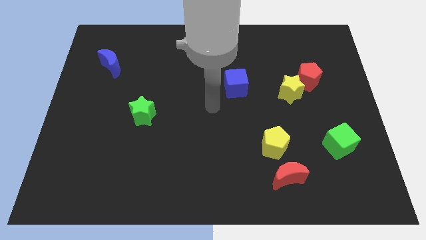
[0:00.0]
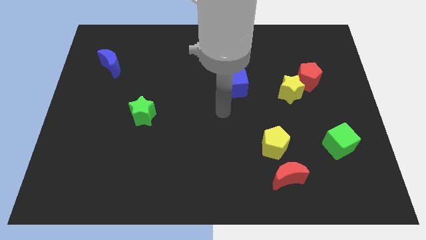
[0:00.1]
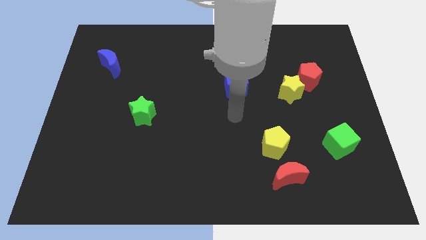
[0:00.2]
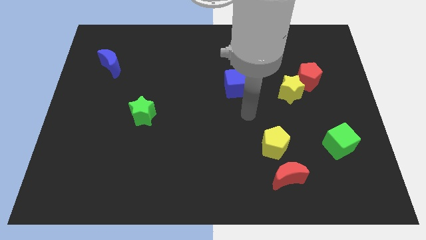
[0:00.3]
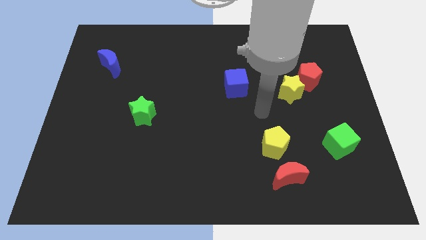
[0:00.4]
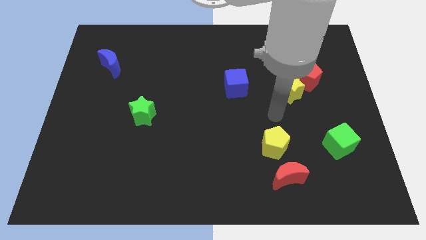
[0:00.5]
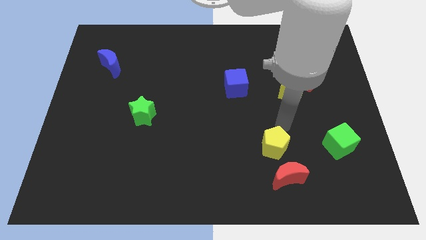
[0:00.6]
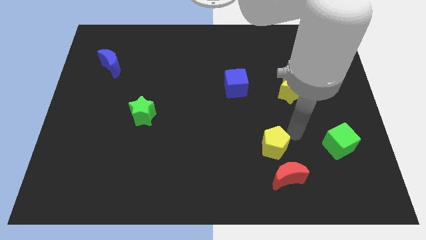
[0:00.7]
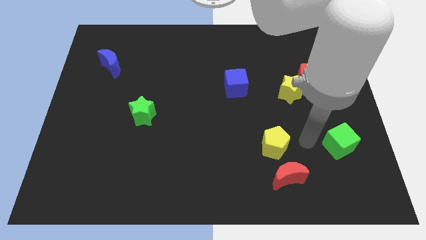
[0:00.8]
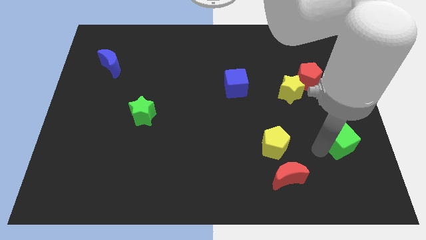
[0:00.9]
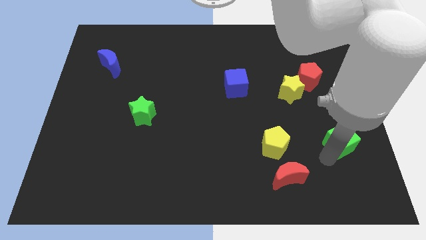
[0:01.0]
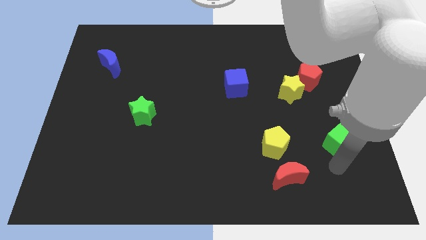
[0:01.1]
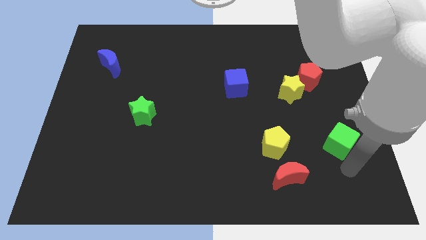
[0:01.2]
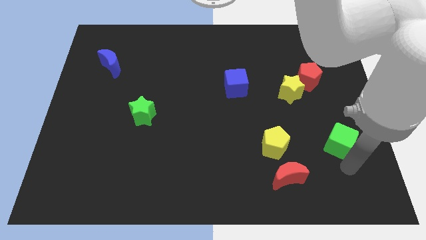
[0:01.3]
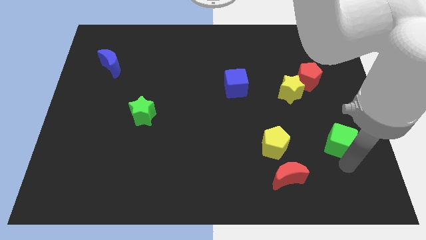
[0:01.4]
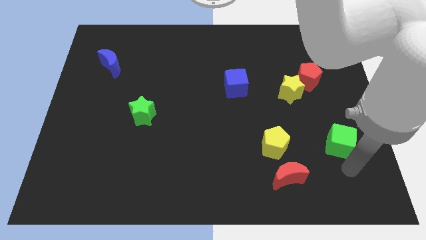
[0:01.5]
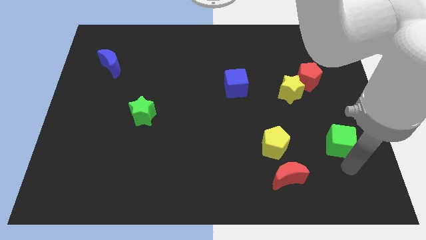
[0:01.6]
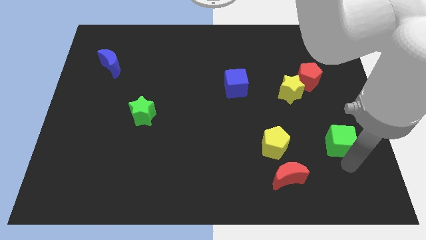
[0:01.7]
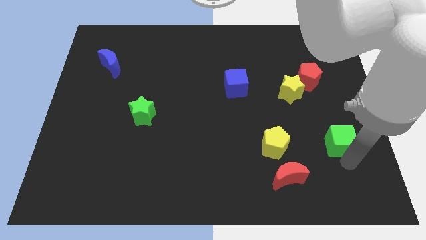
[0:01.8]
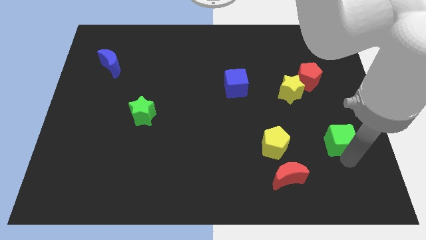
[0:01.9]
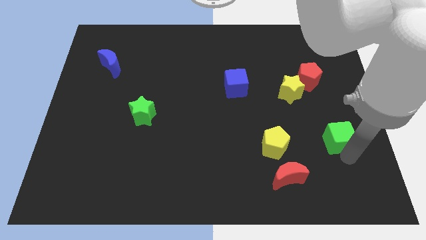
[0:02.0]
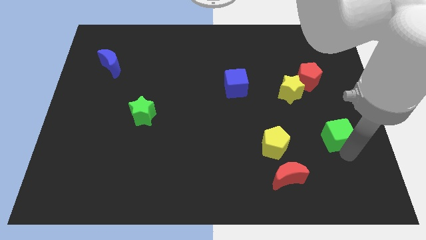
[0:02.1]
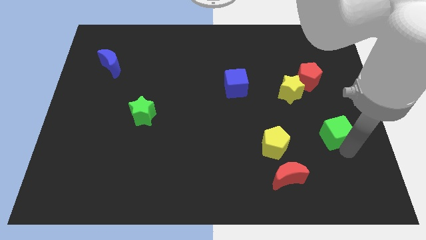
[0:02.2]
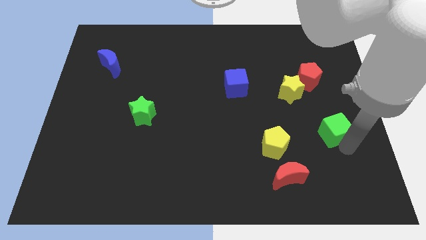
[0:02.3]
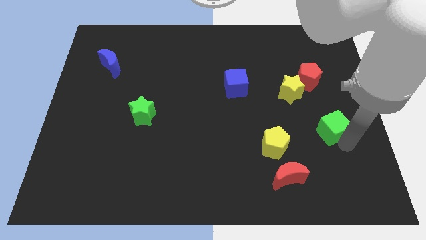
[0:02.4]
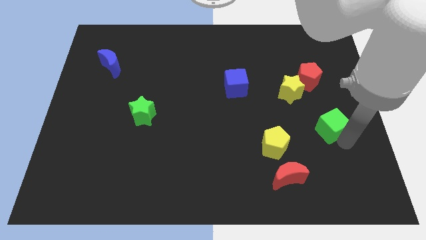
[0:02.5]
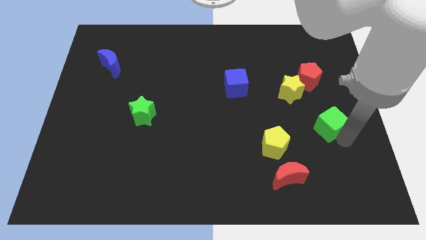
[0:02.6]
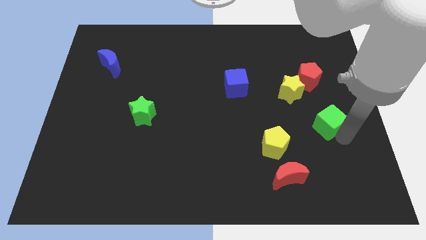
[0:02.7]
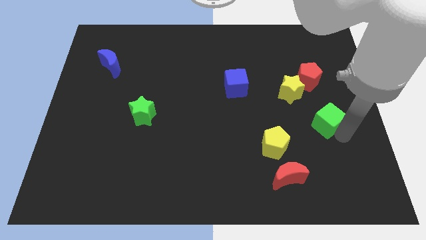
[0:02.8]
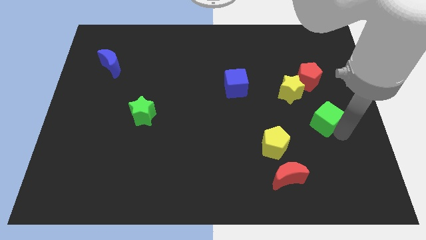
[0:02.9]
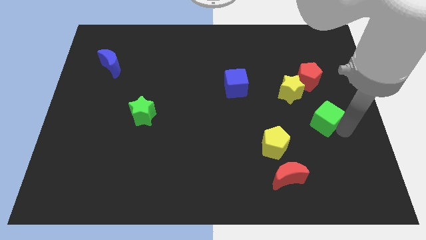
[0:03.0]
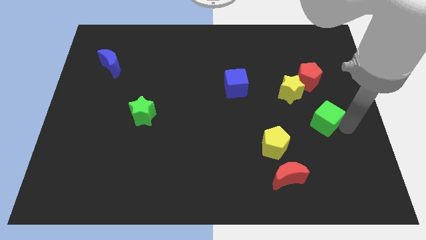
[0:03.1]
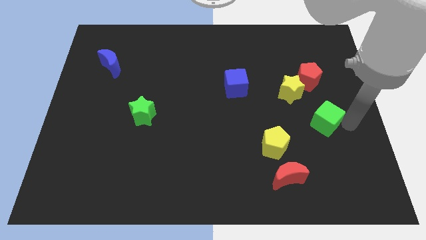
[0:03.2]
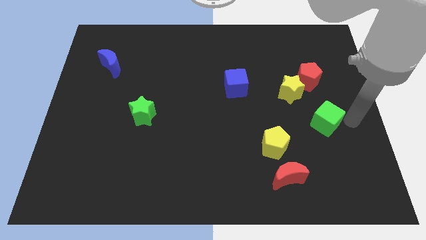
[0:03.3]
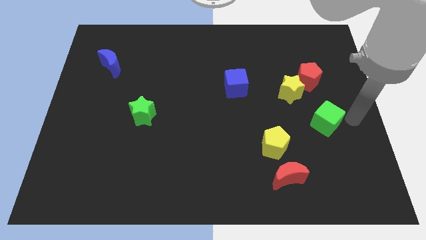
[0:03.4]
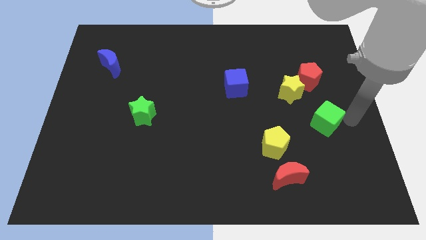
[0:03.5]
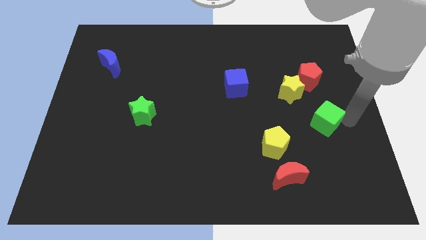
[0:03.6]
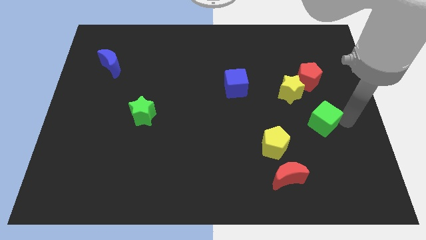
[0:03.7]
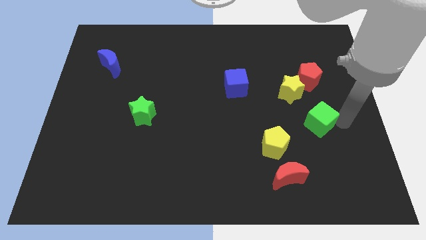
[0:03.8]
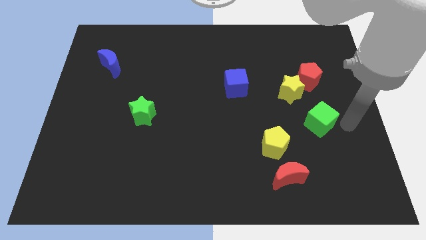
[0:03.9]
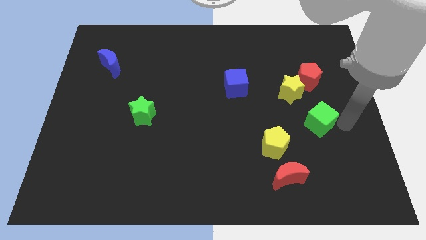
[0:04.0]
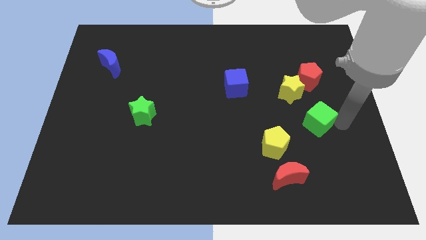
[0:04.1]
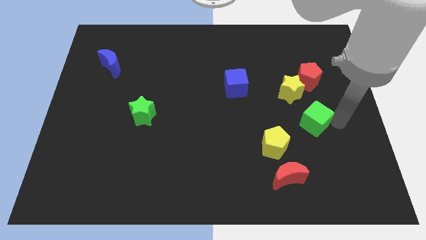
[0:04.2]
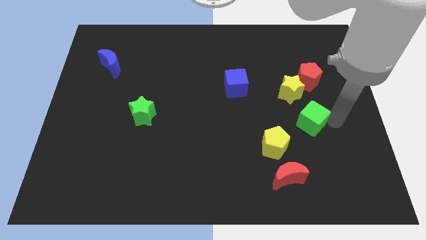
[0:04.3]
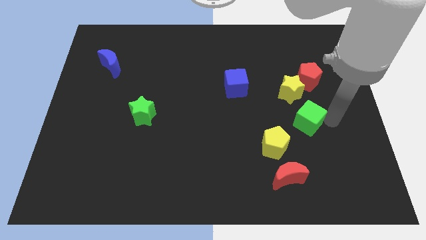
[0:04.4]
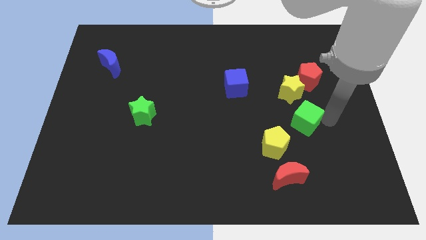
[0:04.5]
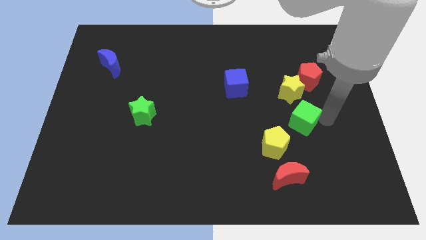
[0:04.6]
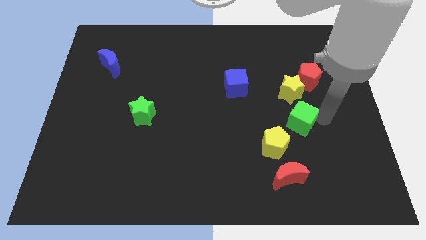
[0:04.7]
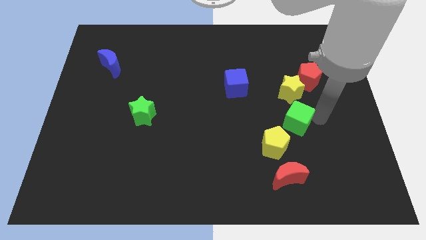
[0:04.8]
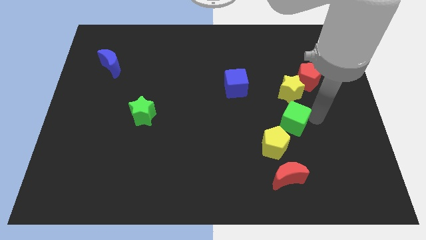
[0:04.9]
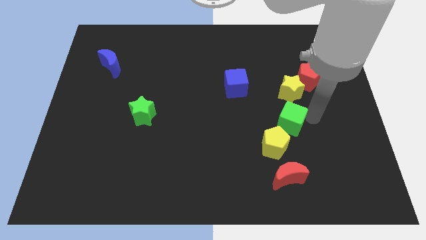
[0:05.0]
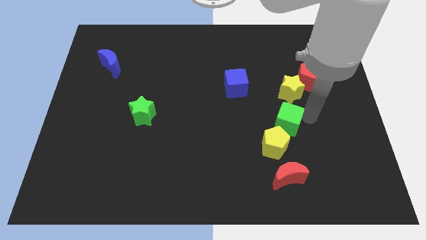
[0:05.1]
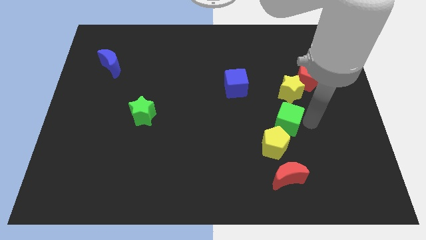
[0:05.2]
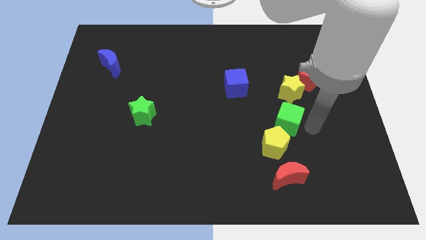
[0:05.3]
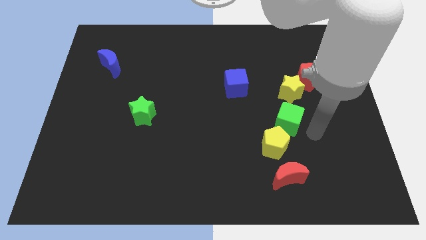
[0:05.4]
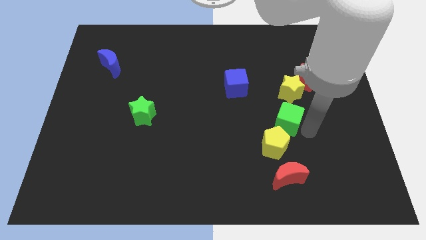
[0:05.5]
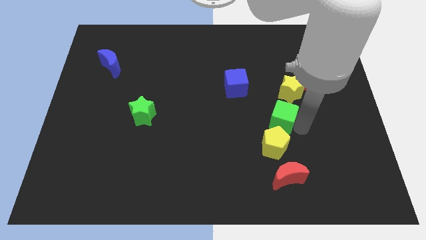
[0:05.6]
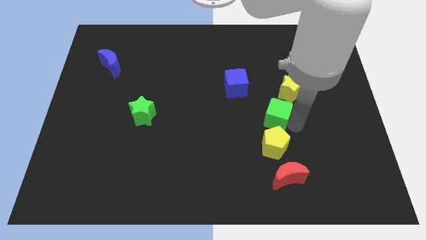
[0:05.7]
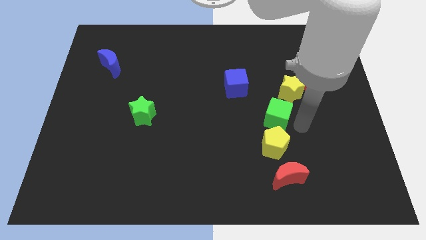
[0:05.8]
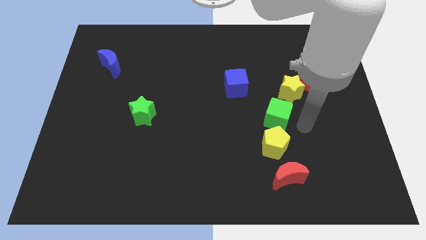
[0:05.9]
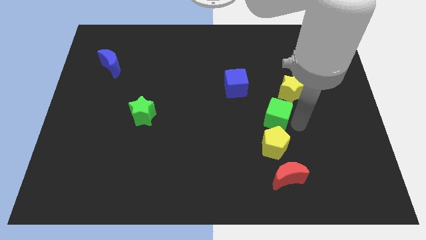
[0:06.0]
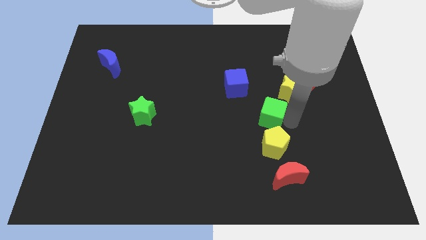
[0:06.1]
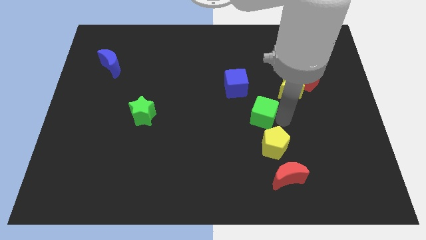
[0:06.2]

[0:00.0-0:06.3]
push the green cube to the middle of the board
